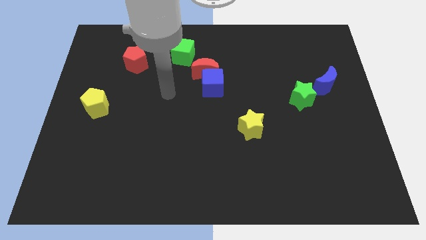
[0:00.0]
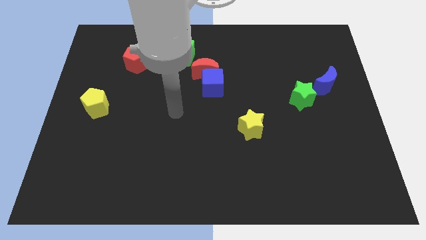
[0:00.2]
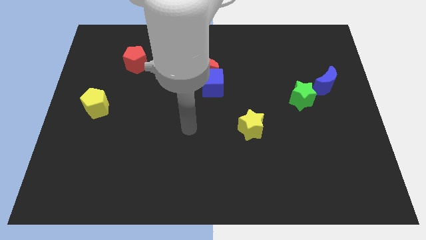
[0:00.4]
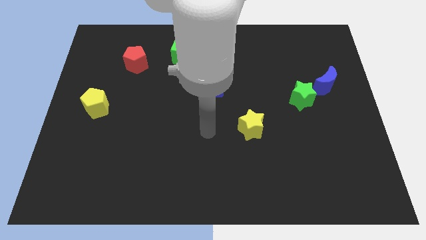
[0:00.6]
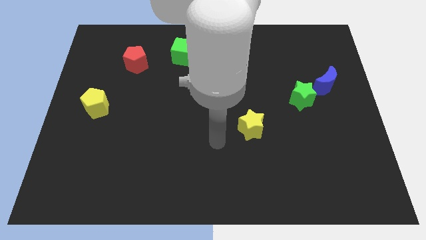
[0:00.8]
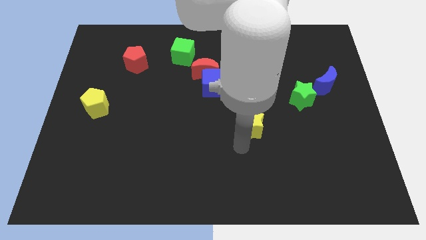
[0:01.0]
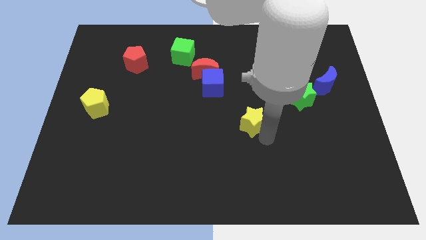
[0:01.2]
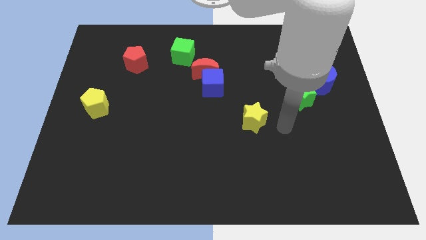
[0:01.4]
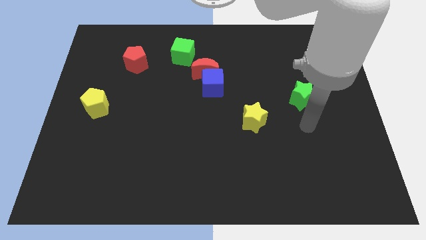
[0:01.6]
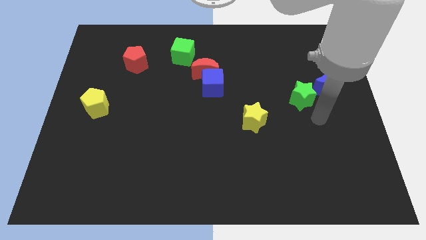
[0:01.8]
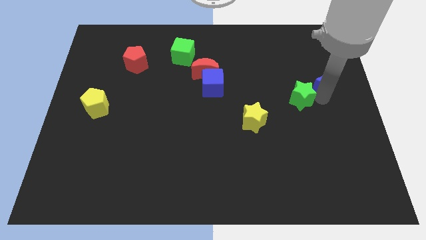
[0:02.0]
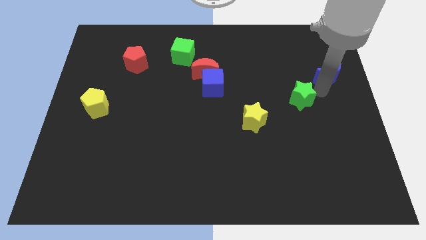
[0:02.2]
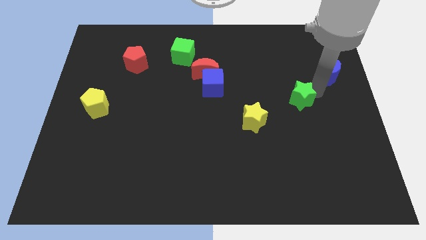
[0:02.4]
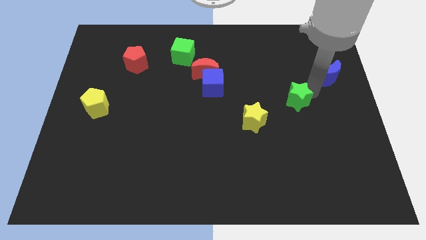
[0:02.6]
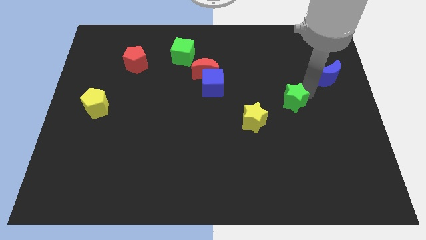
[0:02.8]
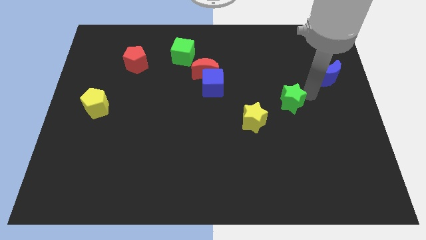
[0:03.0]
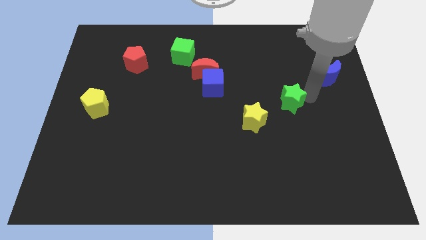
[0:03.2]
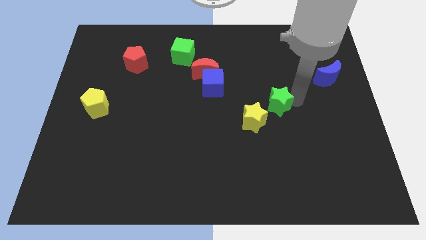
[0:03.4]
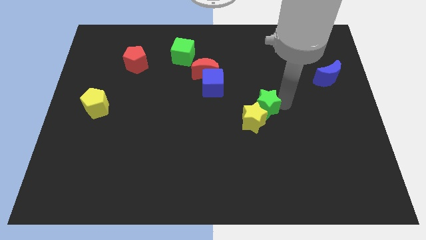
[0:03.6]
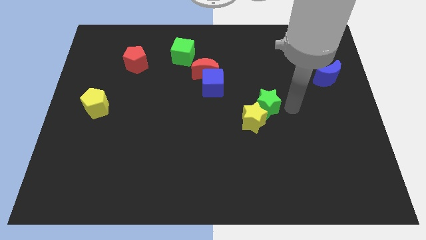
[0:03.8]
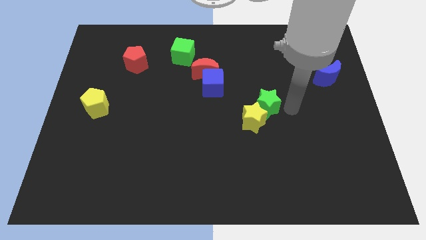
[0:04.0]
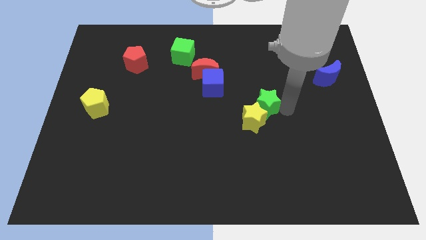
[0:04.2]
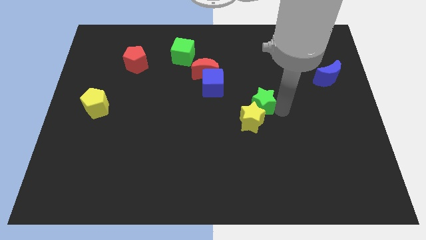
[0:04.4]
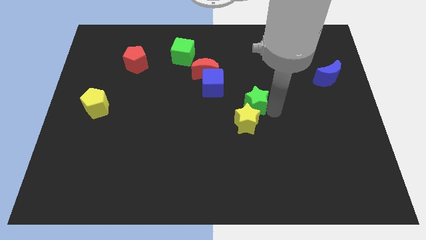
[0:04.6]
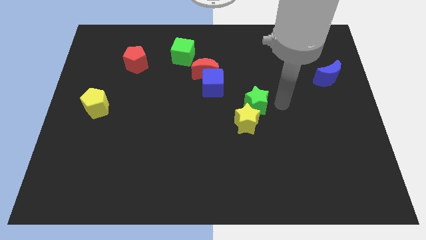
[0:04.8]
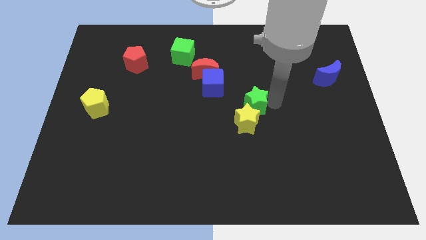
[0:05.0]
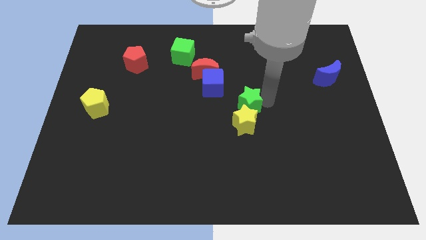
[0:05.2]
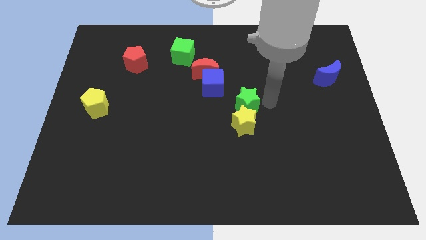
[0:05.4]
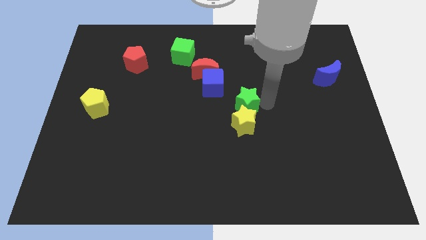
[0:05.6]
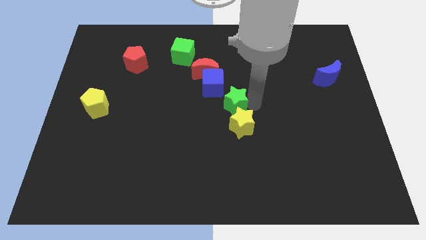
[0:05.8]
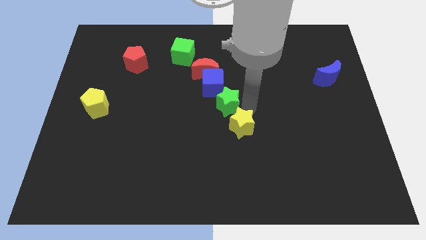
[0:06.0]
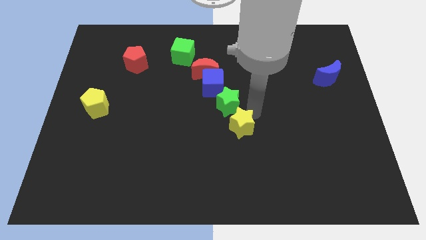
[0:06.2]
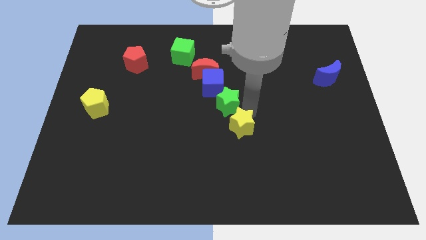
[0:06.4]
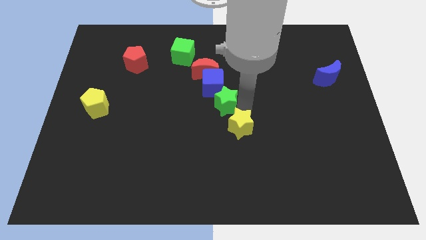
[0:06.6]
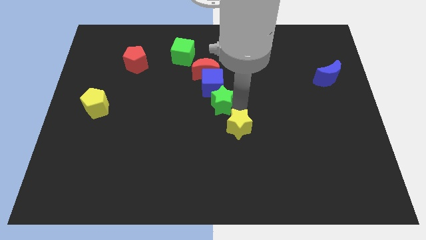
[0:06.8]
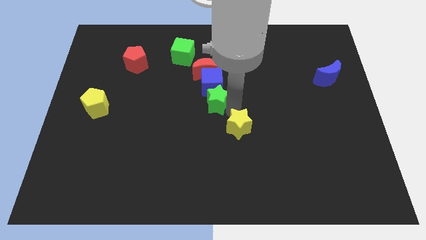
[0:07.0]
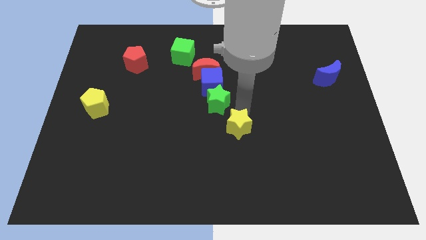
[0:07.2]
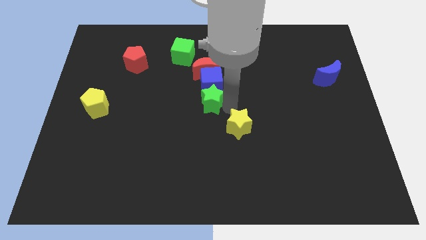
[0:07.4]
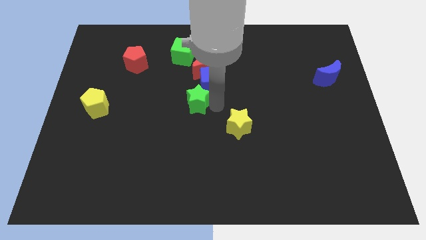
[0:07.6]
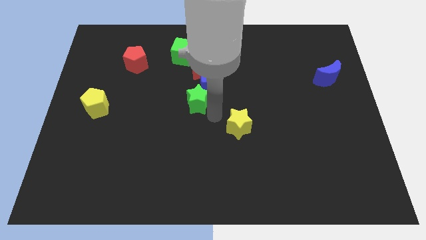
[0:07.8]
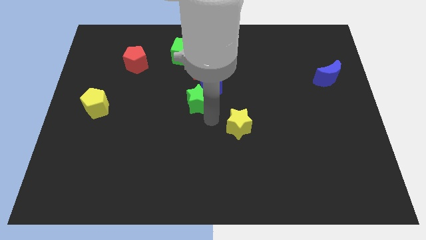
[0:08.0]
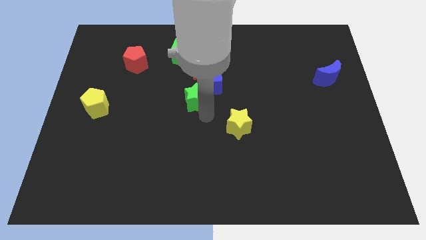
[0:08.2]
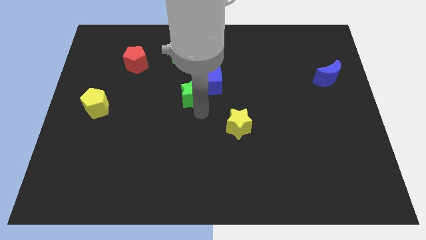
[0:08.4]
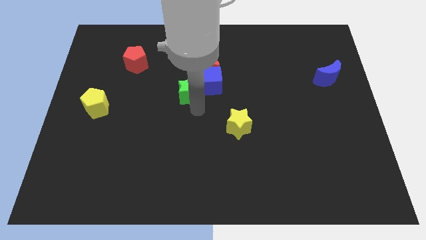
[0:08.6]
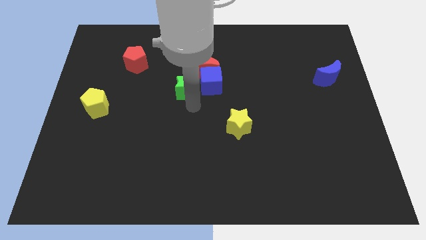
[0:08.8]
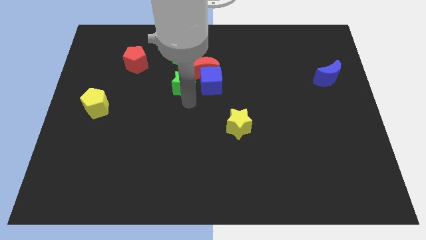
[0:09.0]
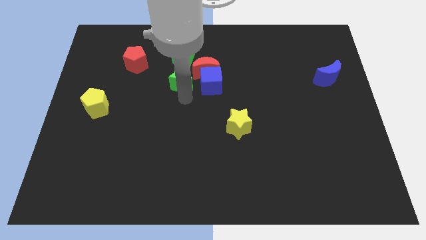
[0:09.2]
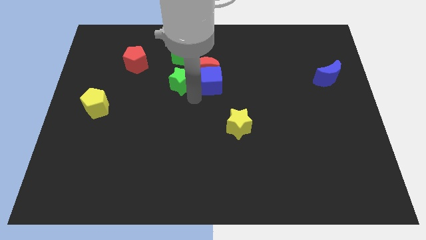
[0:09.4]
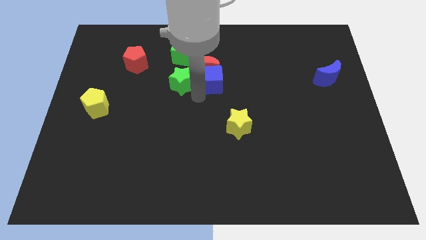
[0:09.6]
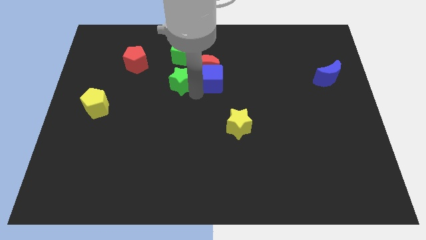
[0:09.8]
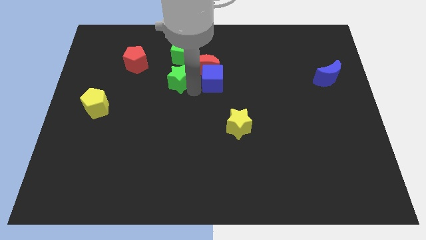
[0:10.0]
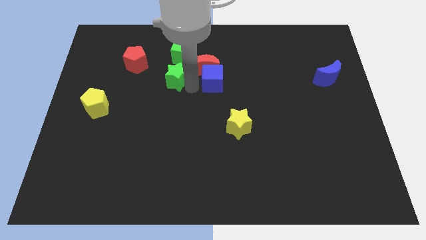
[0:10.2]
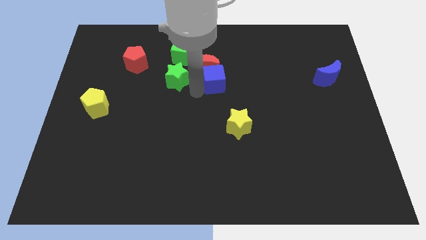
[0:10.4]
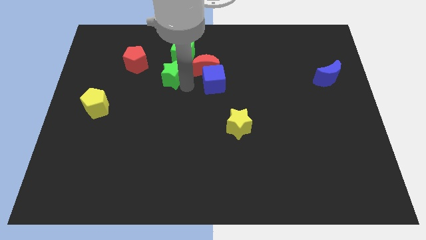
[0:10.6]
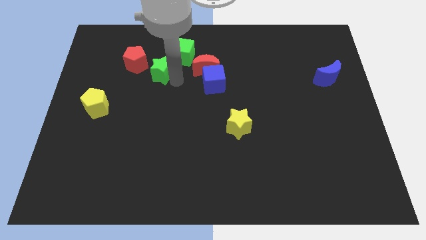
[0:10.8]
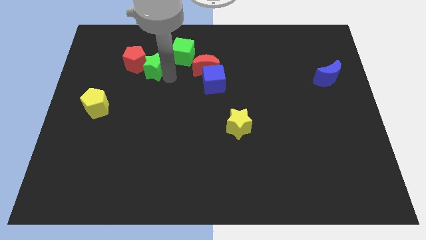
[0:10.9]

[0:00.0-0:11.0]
slide the green star next to the red pentagon

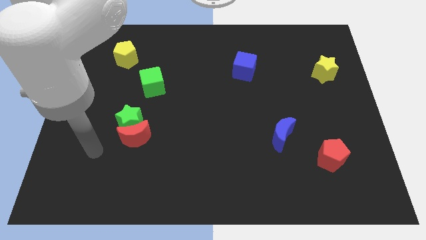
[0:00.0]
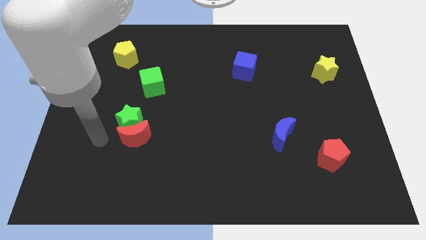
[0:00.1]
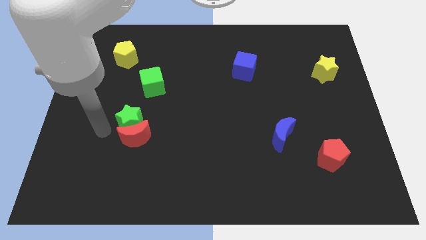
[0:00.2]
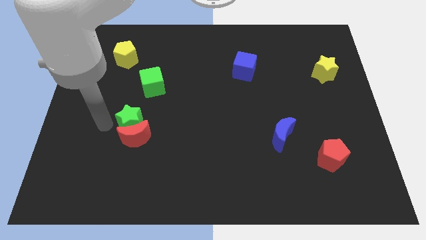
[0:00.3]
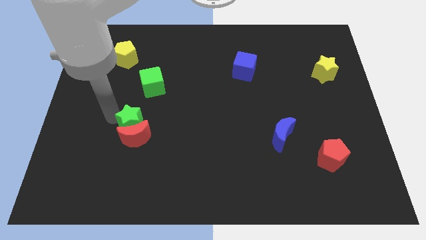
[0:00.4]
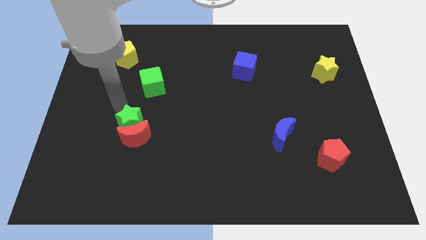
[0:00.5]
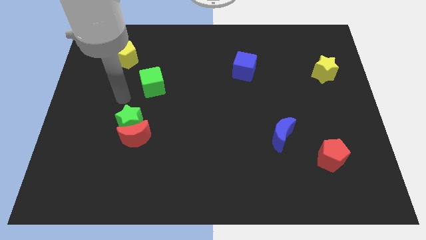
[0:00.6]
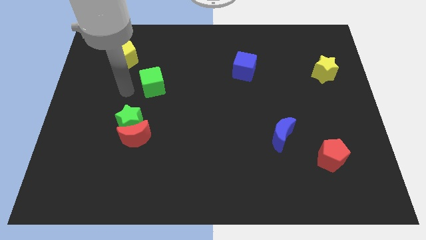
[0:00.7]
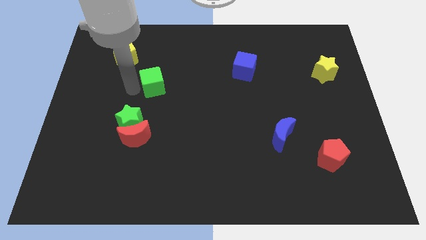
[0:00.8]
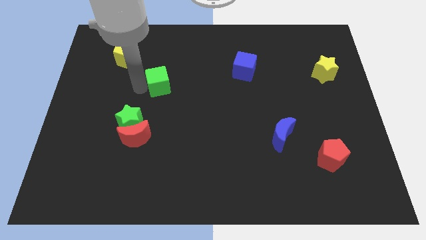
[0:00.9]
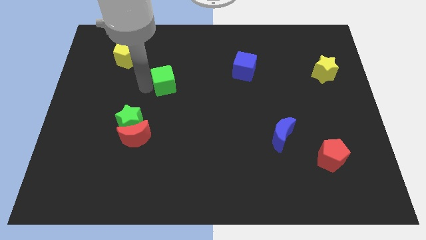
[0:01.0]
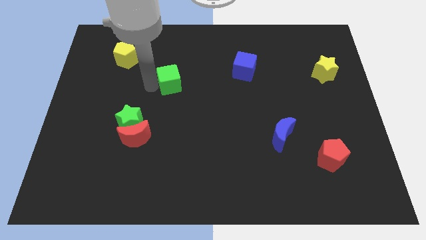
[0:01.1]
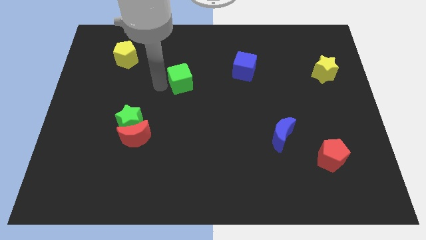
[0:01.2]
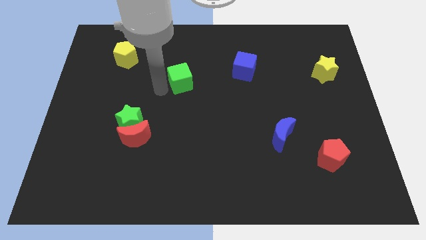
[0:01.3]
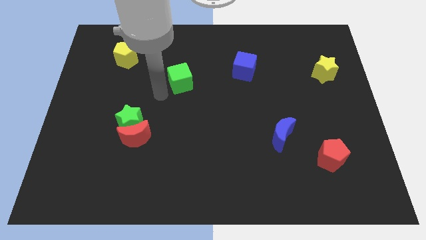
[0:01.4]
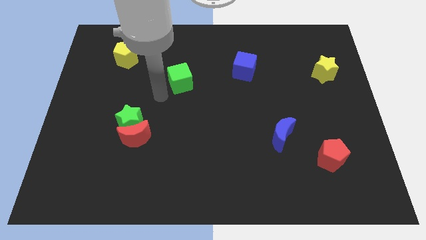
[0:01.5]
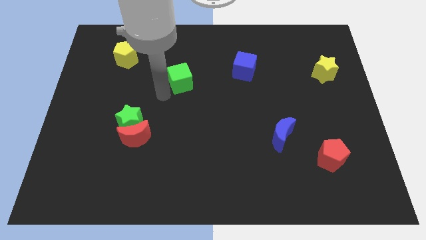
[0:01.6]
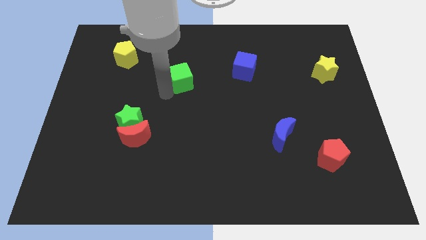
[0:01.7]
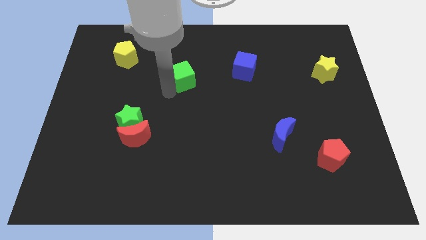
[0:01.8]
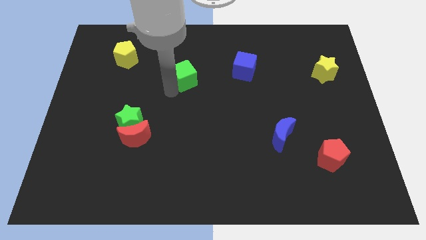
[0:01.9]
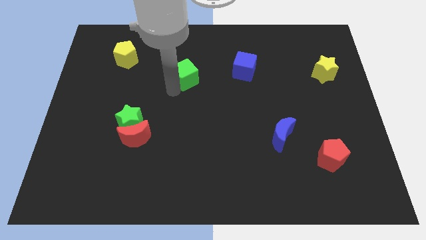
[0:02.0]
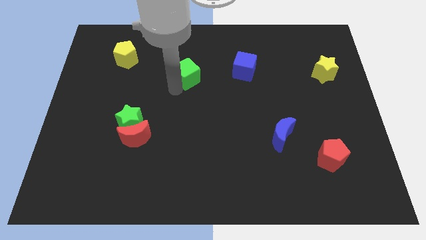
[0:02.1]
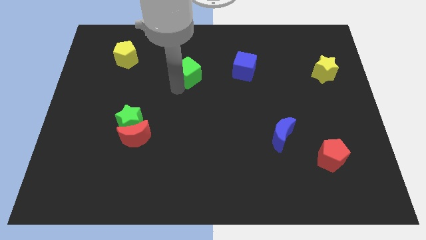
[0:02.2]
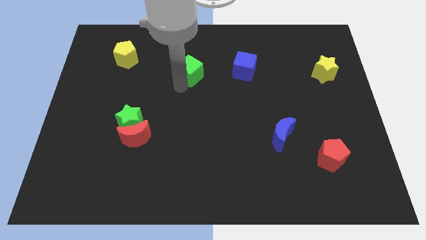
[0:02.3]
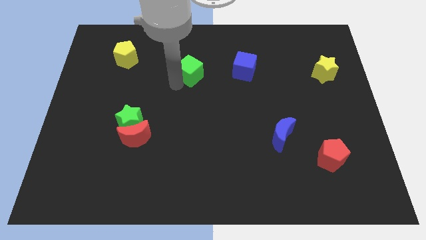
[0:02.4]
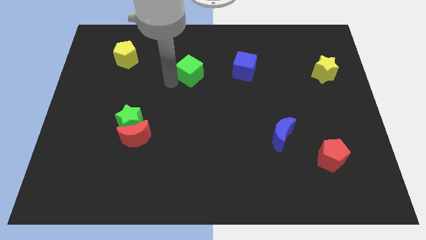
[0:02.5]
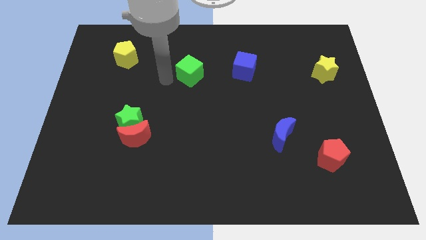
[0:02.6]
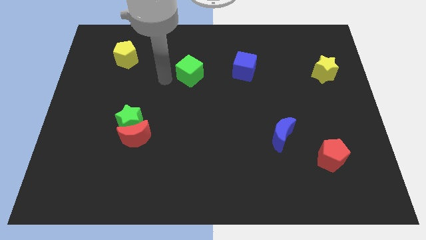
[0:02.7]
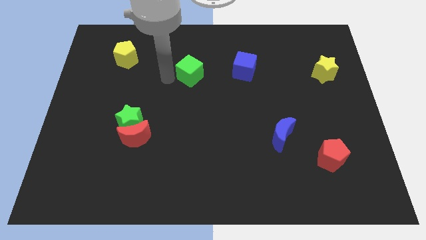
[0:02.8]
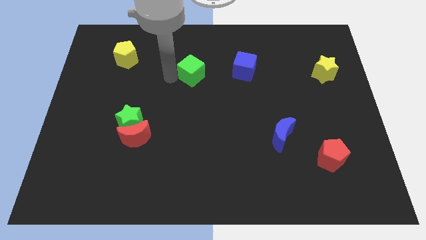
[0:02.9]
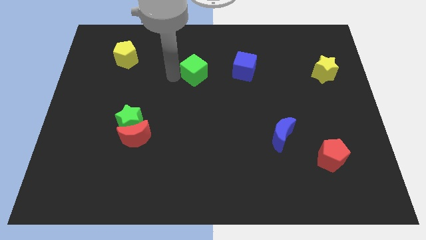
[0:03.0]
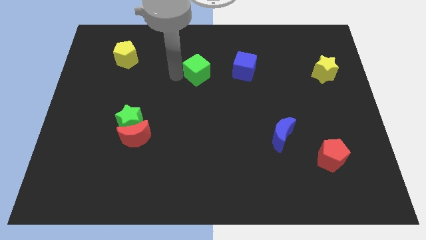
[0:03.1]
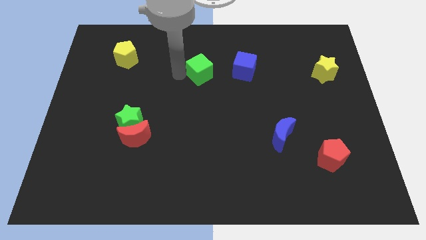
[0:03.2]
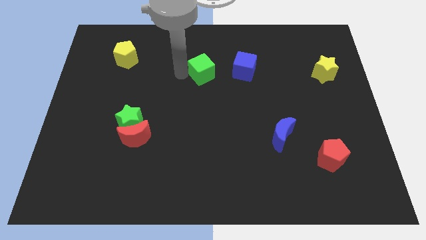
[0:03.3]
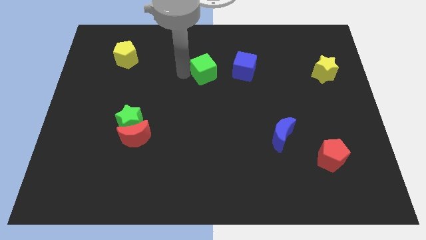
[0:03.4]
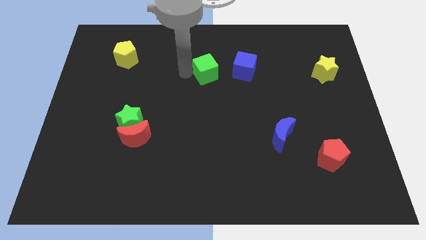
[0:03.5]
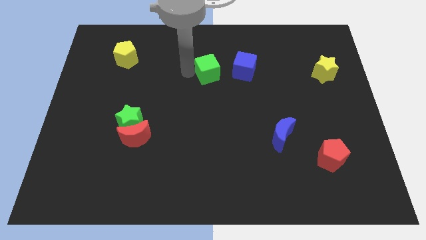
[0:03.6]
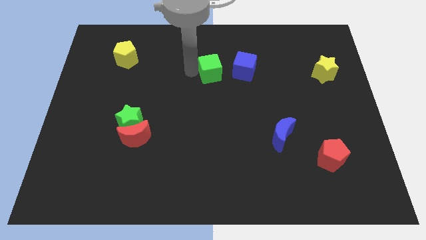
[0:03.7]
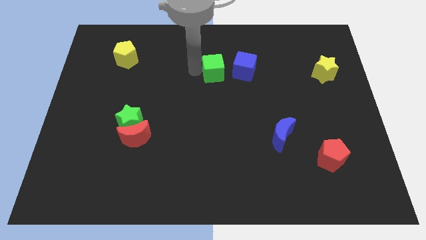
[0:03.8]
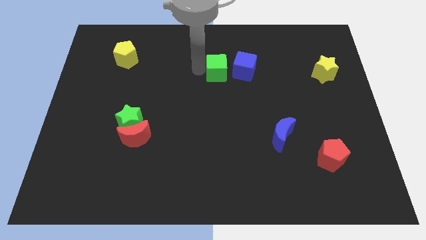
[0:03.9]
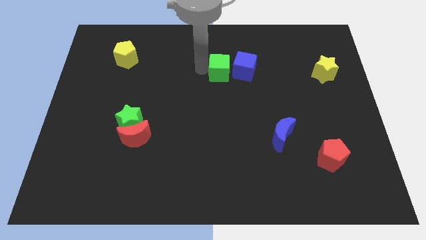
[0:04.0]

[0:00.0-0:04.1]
push the green cube to the blue cube
